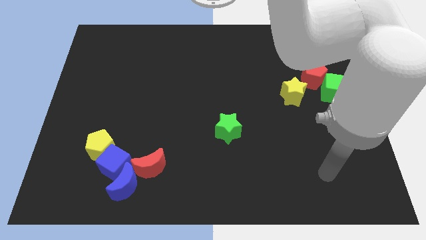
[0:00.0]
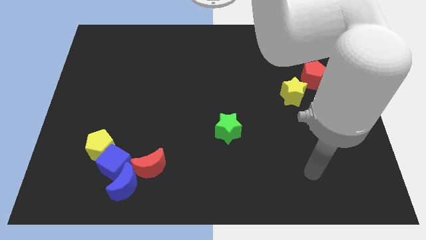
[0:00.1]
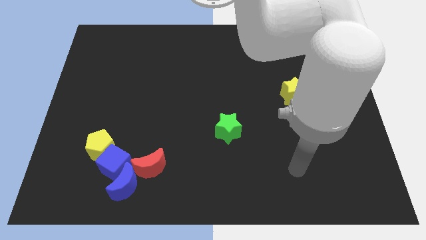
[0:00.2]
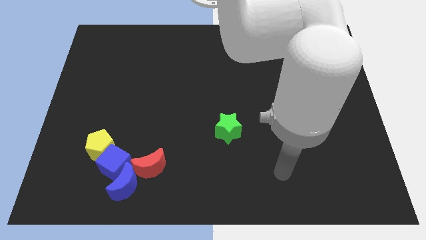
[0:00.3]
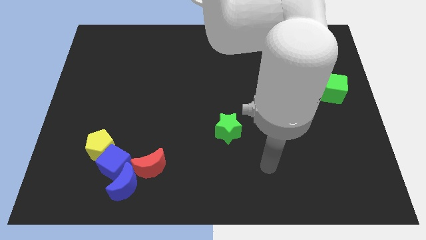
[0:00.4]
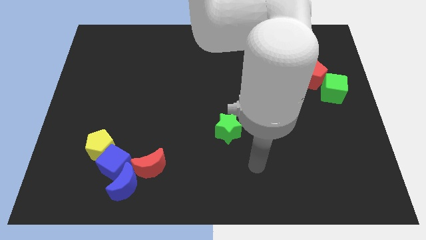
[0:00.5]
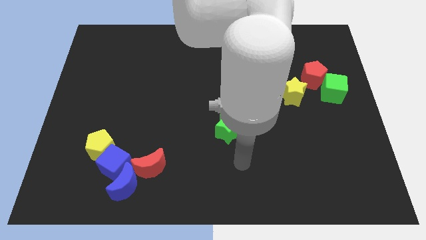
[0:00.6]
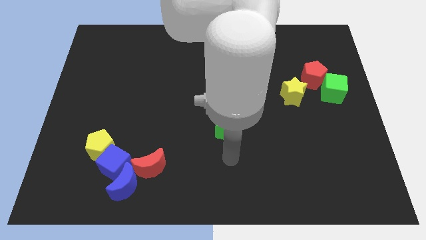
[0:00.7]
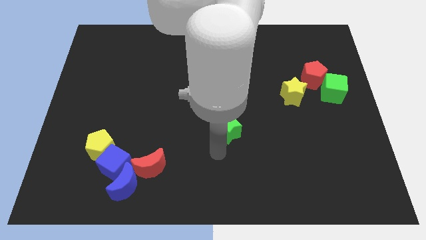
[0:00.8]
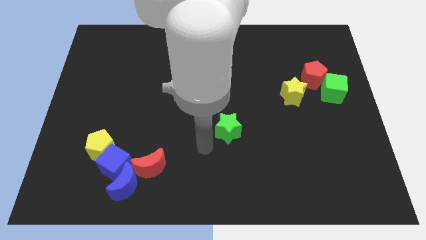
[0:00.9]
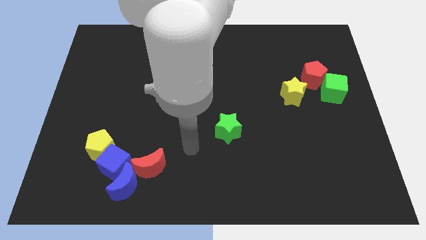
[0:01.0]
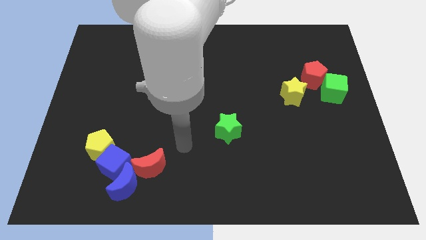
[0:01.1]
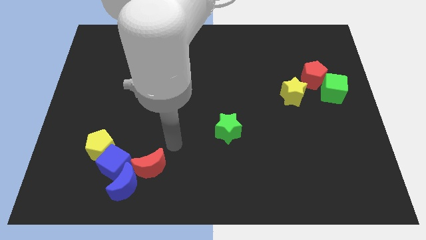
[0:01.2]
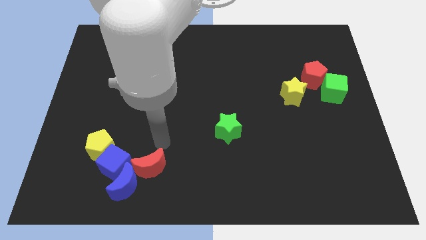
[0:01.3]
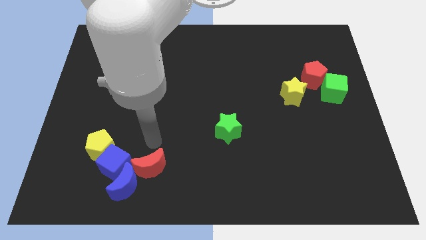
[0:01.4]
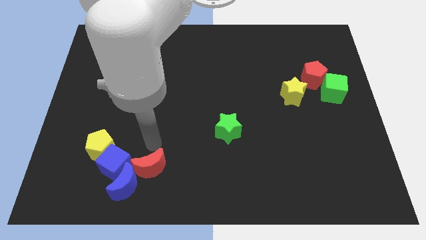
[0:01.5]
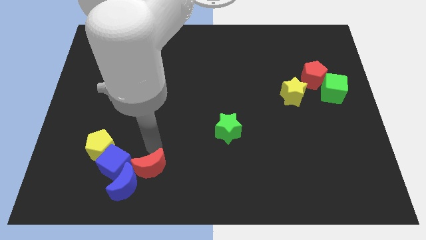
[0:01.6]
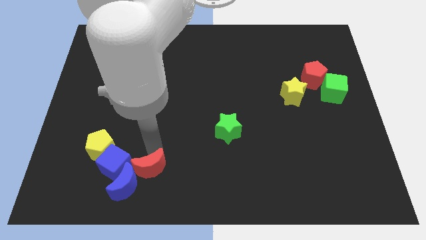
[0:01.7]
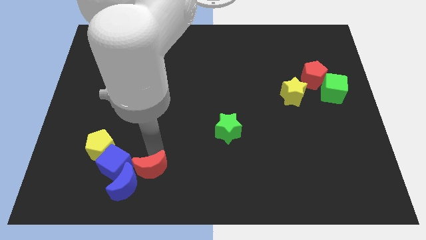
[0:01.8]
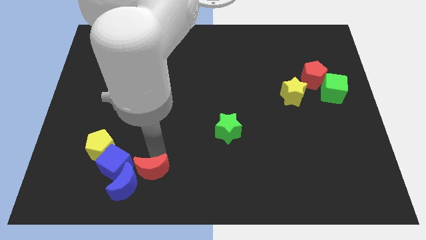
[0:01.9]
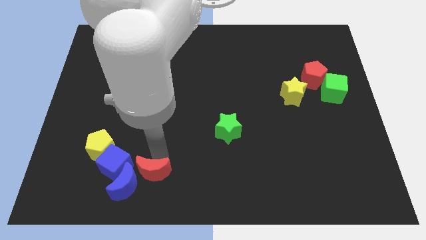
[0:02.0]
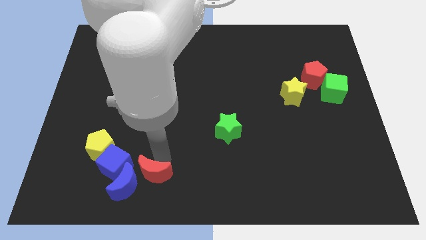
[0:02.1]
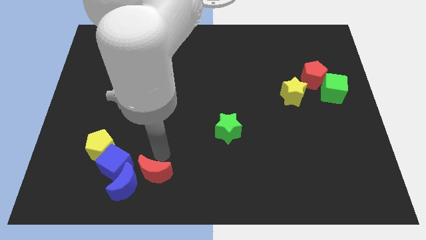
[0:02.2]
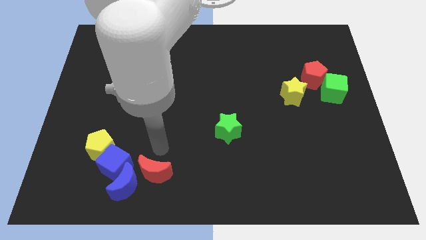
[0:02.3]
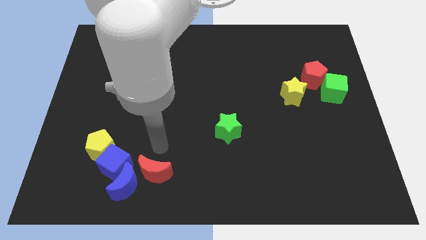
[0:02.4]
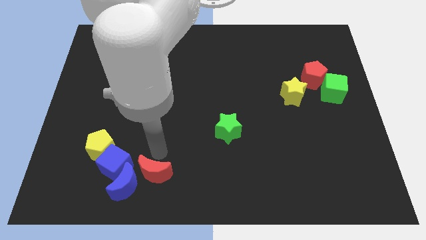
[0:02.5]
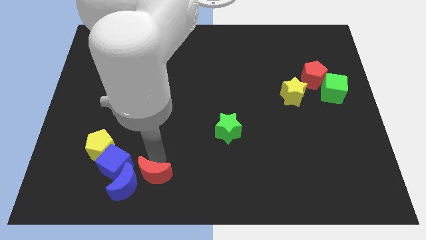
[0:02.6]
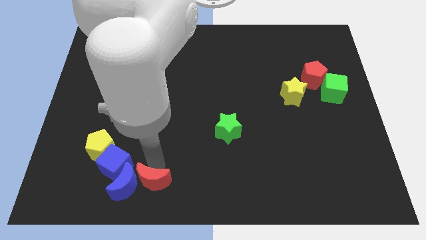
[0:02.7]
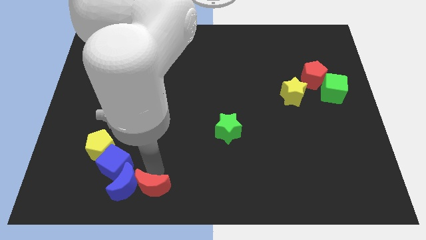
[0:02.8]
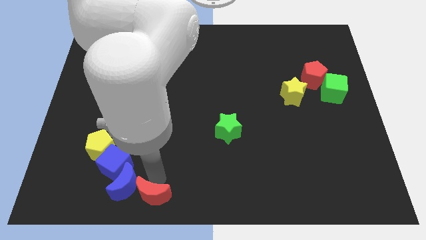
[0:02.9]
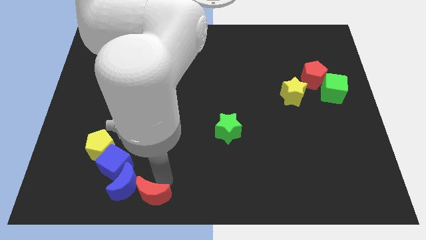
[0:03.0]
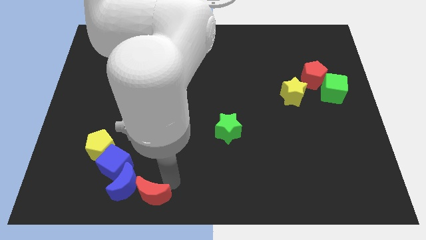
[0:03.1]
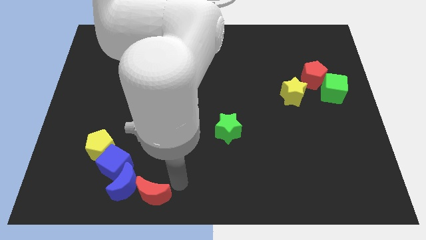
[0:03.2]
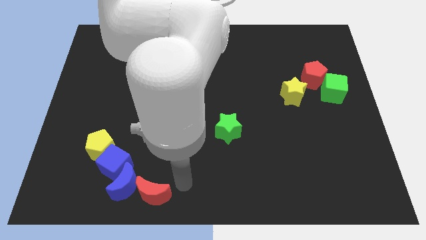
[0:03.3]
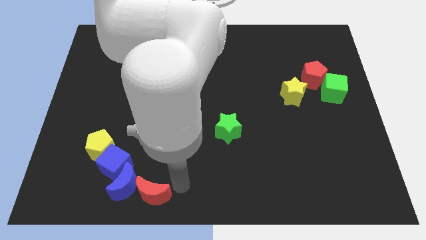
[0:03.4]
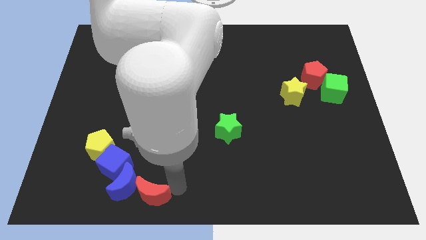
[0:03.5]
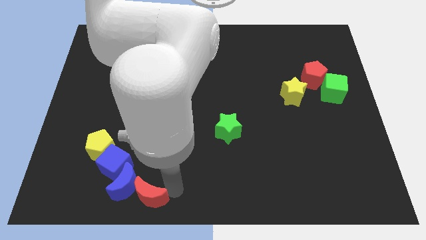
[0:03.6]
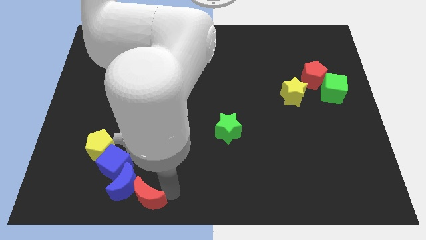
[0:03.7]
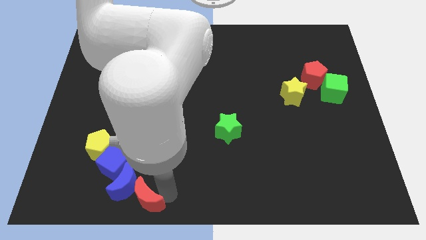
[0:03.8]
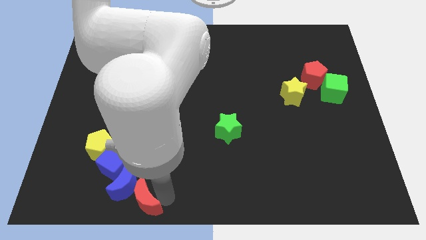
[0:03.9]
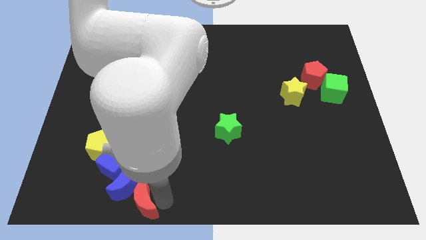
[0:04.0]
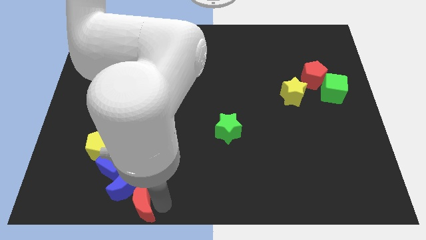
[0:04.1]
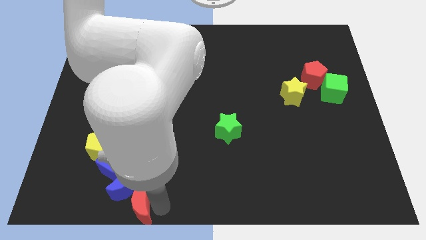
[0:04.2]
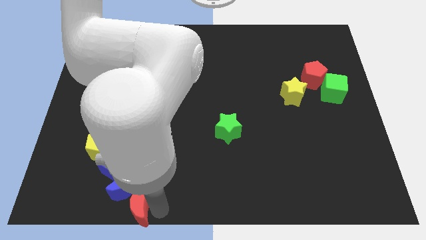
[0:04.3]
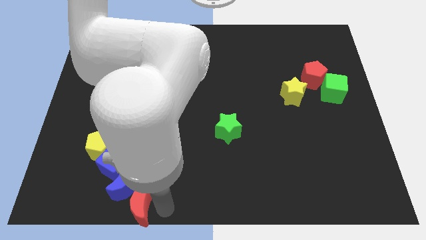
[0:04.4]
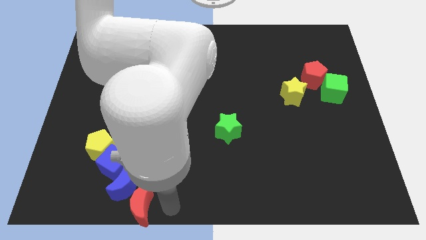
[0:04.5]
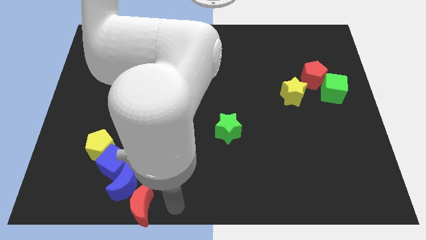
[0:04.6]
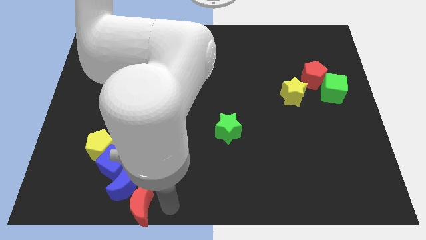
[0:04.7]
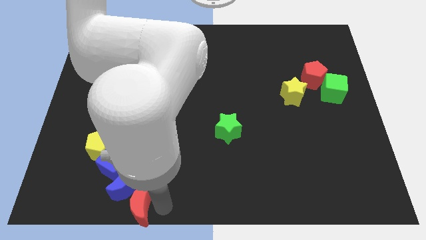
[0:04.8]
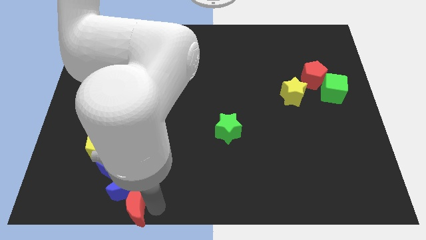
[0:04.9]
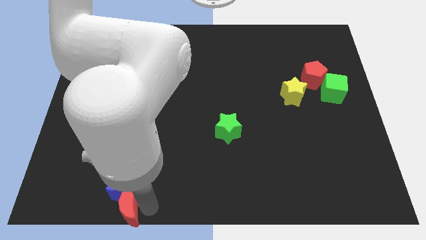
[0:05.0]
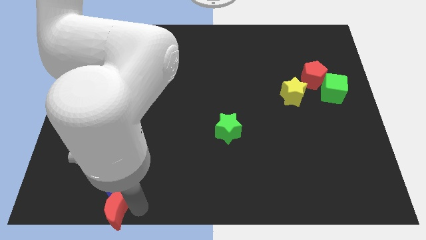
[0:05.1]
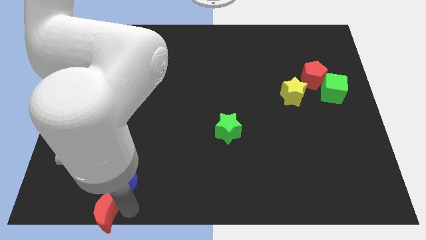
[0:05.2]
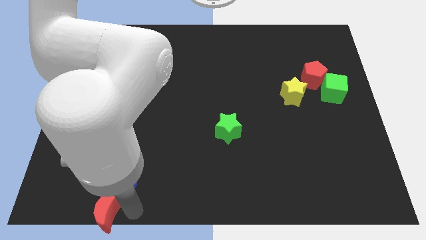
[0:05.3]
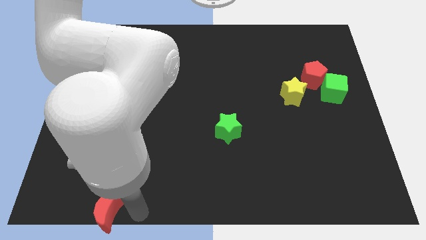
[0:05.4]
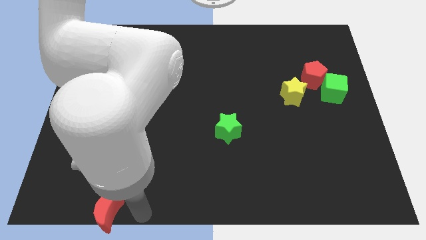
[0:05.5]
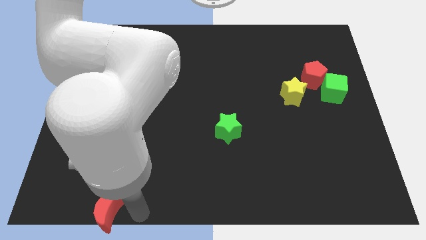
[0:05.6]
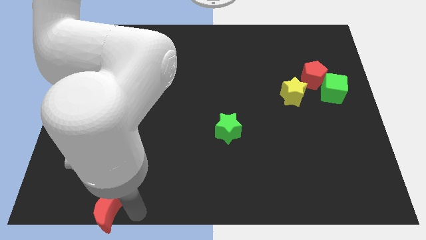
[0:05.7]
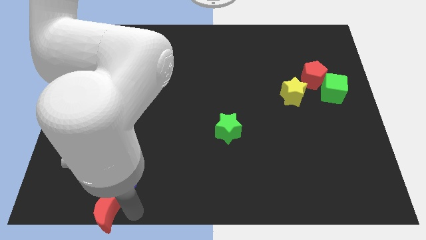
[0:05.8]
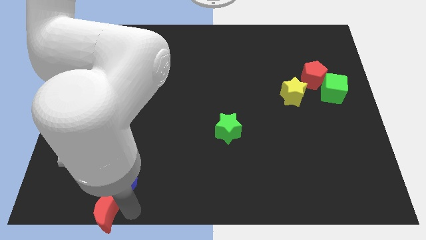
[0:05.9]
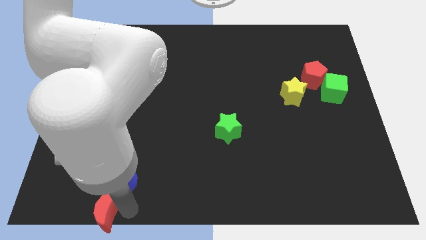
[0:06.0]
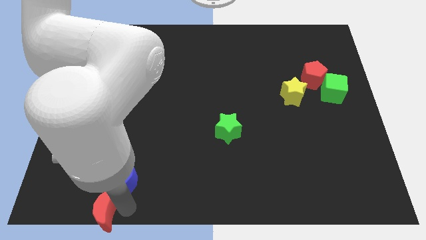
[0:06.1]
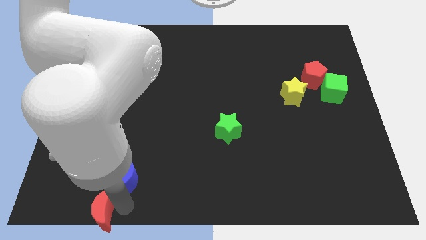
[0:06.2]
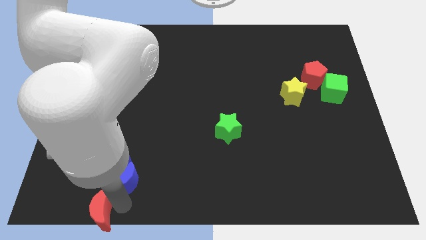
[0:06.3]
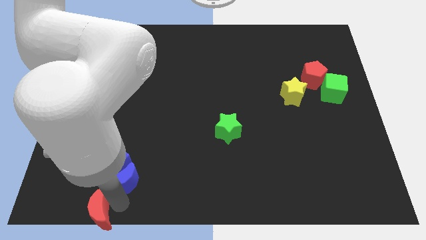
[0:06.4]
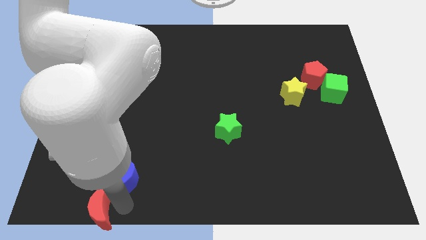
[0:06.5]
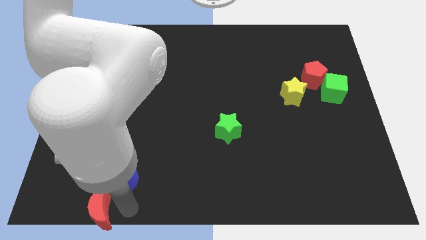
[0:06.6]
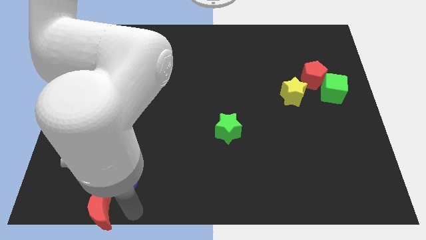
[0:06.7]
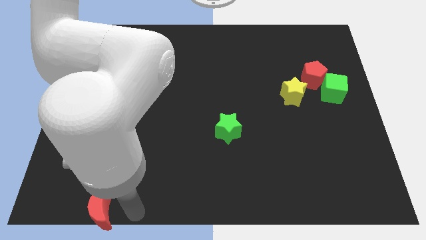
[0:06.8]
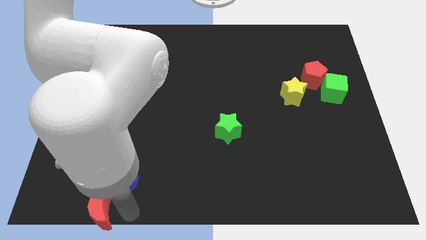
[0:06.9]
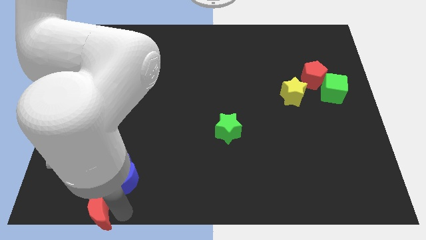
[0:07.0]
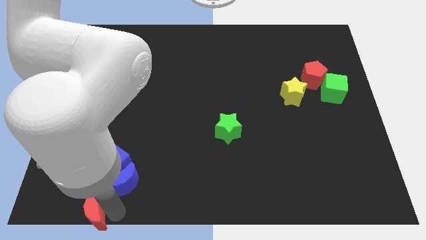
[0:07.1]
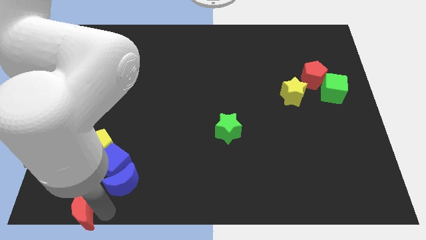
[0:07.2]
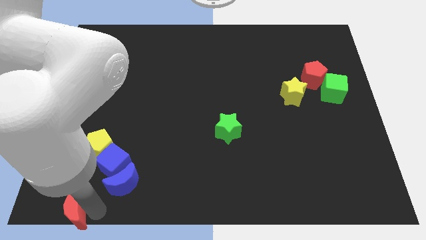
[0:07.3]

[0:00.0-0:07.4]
move the red moon to the bottom left of the board
